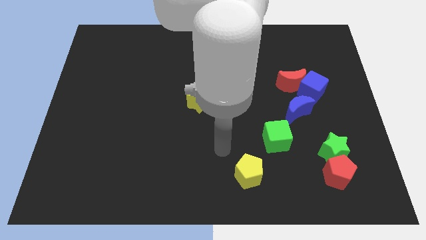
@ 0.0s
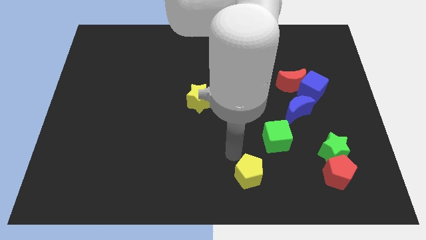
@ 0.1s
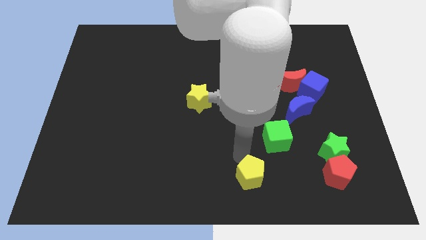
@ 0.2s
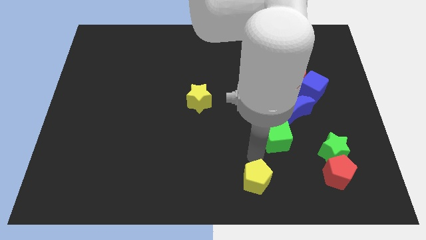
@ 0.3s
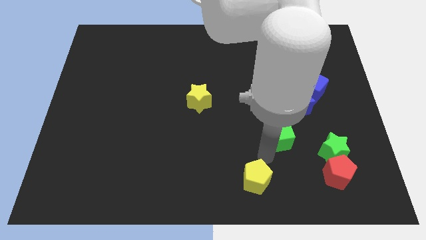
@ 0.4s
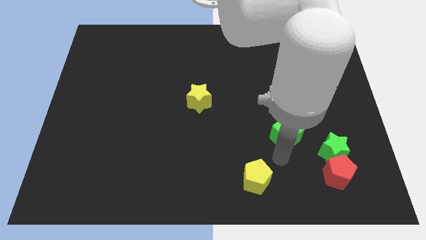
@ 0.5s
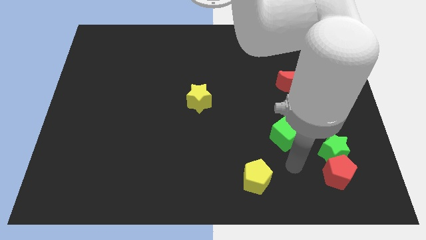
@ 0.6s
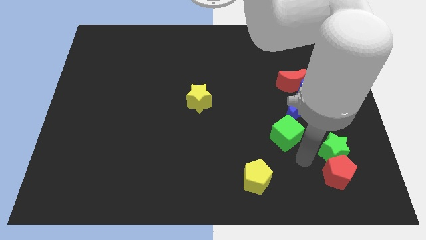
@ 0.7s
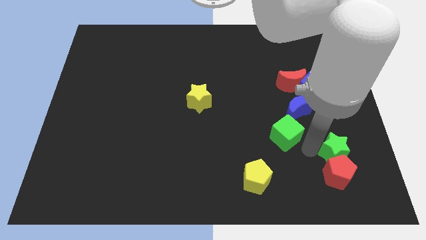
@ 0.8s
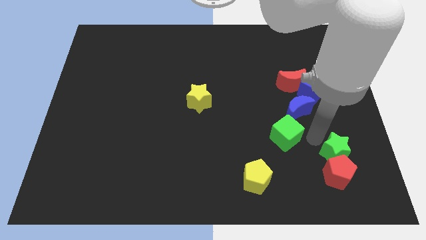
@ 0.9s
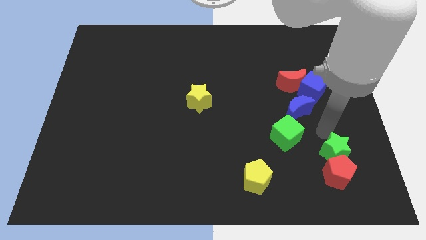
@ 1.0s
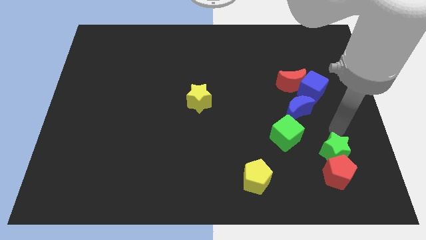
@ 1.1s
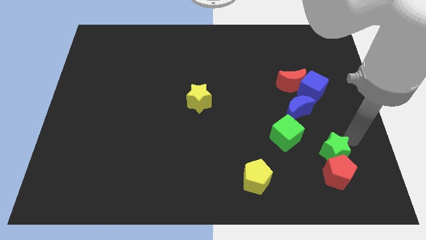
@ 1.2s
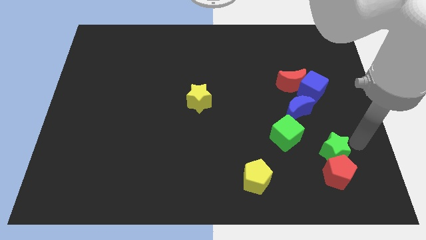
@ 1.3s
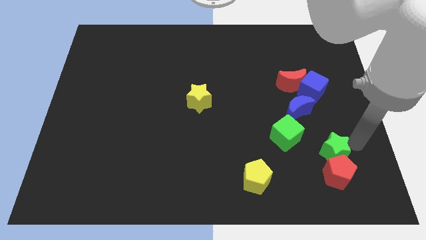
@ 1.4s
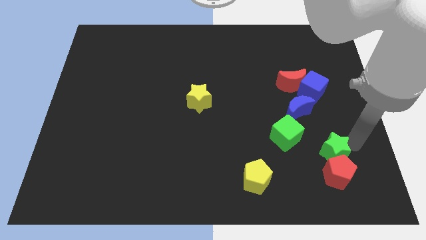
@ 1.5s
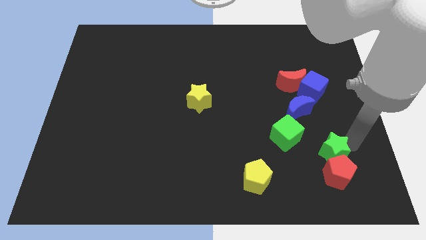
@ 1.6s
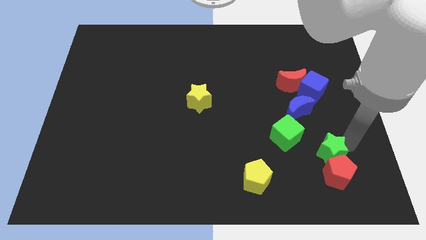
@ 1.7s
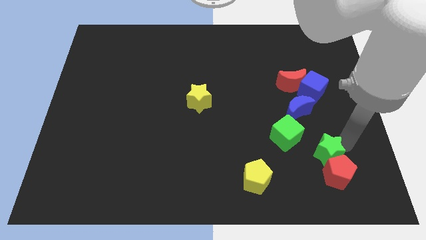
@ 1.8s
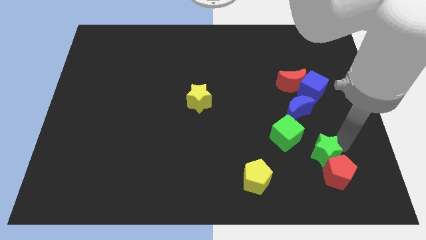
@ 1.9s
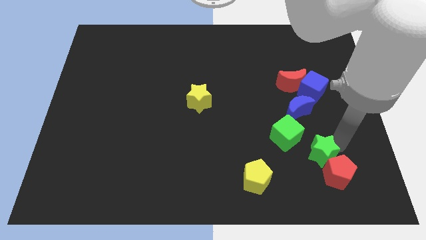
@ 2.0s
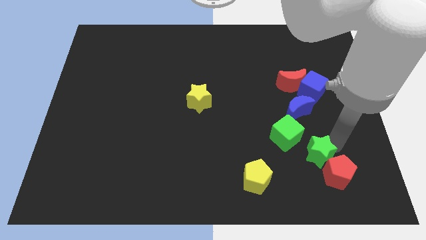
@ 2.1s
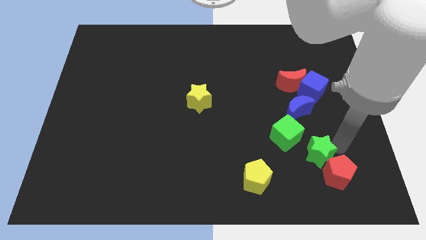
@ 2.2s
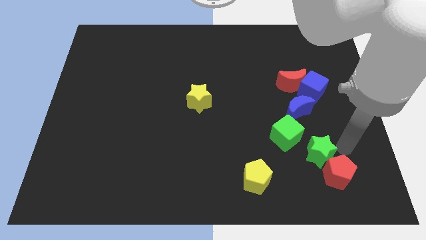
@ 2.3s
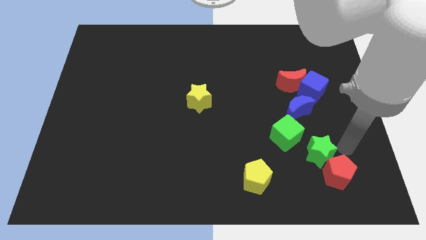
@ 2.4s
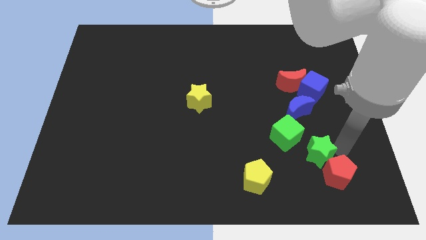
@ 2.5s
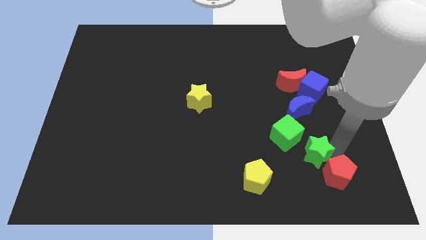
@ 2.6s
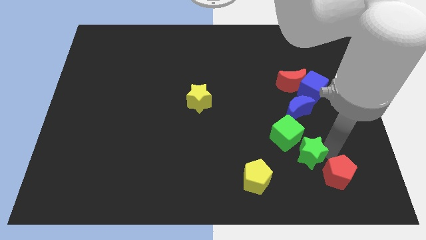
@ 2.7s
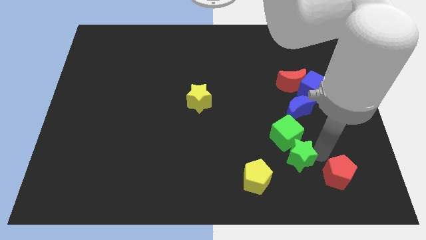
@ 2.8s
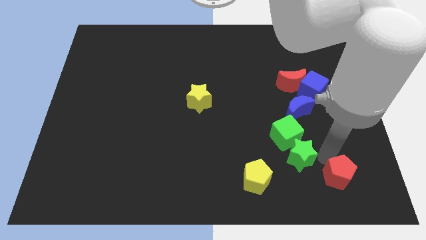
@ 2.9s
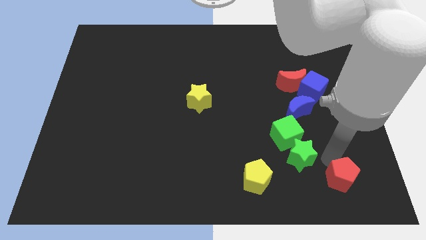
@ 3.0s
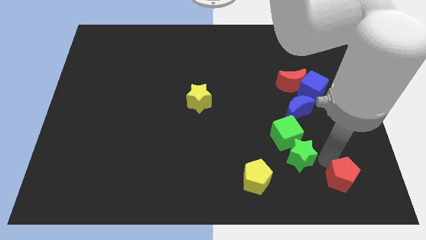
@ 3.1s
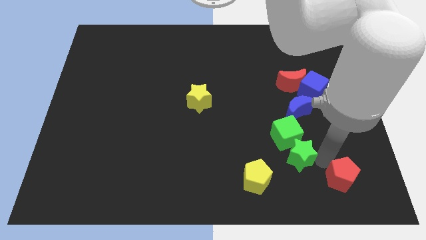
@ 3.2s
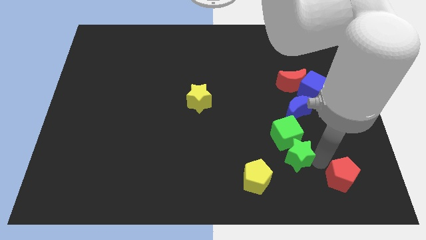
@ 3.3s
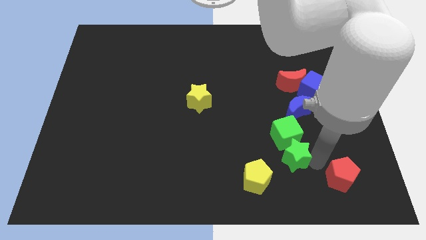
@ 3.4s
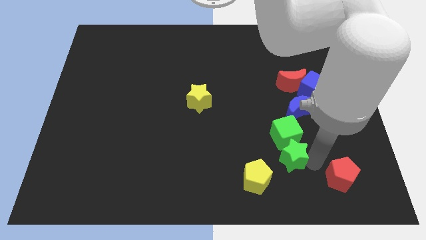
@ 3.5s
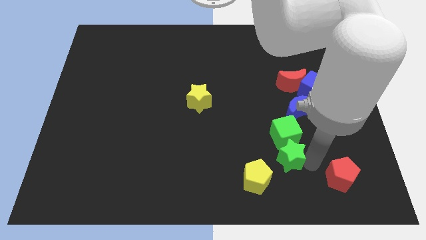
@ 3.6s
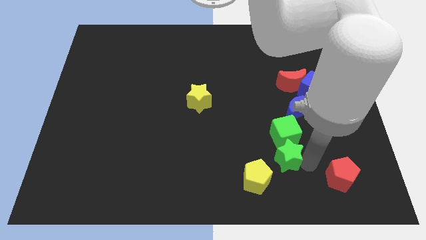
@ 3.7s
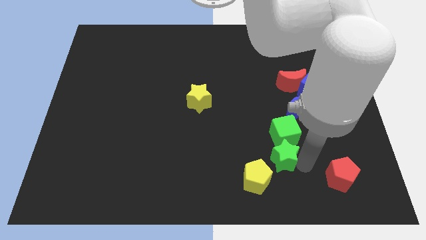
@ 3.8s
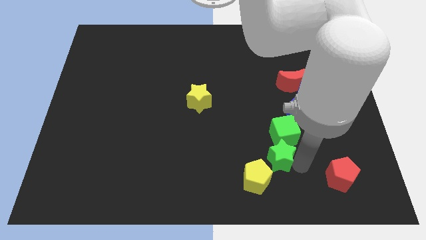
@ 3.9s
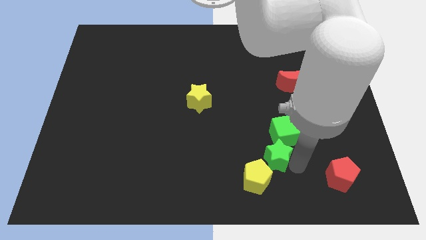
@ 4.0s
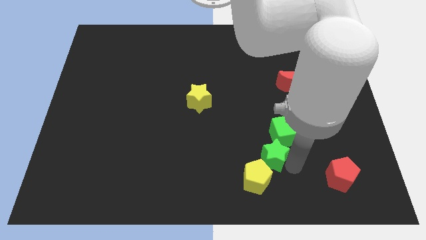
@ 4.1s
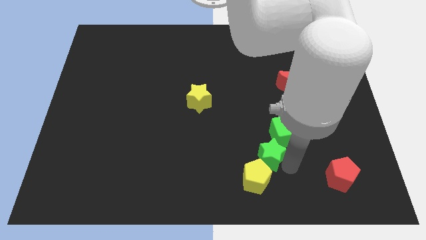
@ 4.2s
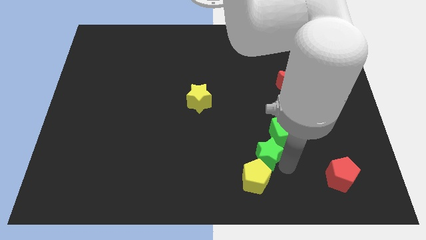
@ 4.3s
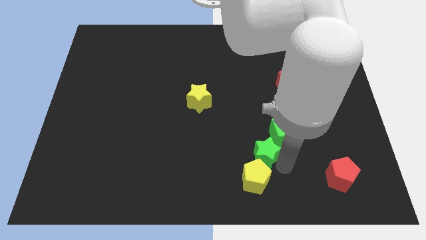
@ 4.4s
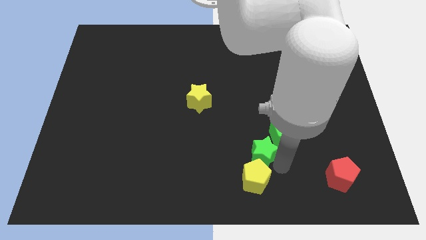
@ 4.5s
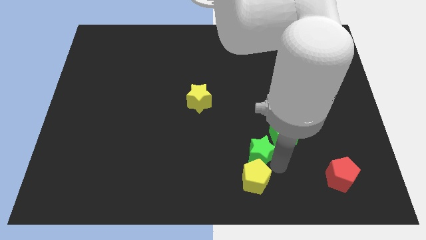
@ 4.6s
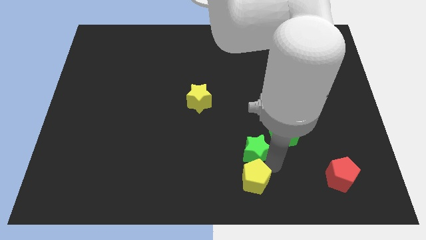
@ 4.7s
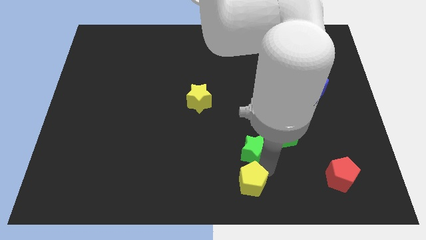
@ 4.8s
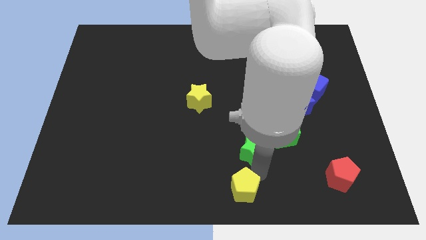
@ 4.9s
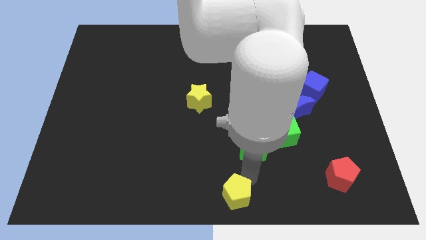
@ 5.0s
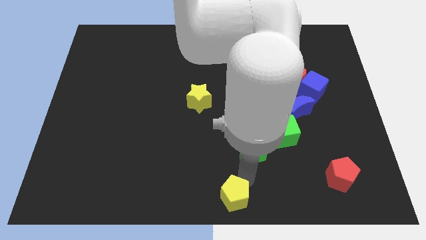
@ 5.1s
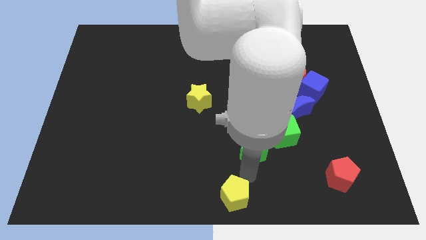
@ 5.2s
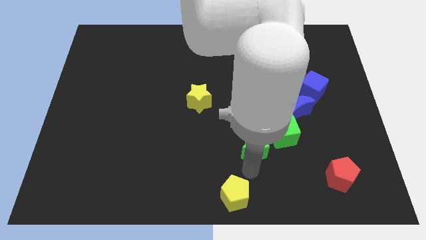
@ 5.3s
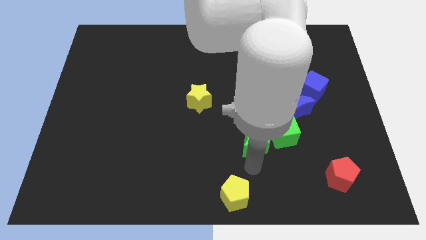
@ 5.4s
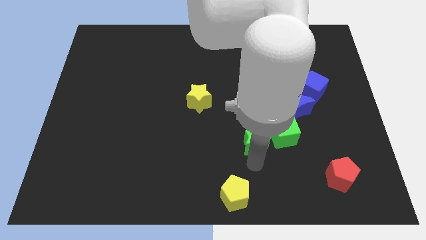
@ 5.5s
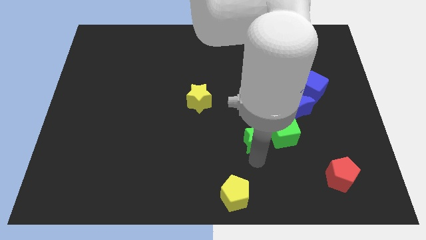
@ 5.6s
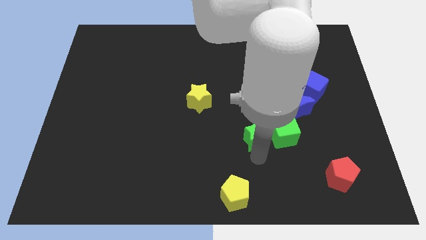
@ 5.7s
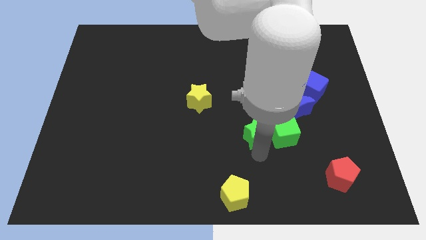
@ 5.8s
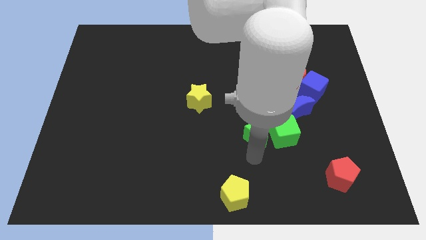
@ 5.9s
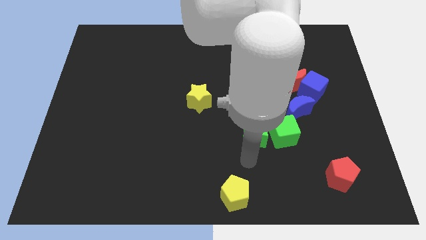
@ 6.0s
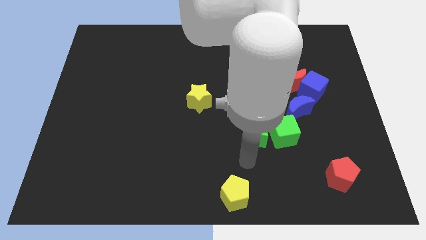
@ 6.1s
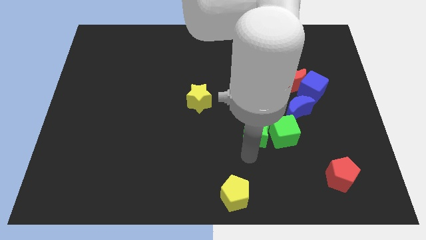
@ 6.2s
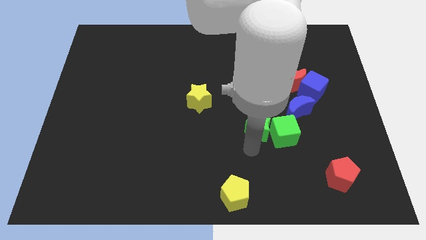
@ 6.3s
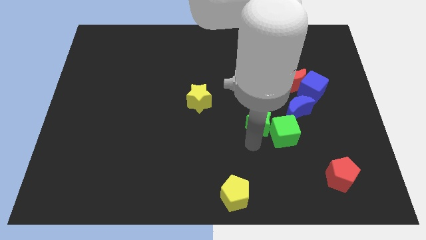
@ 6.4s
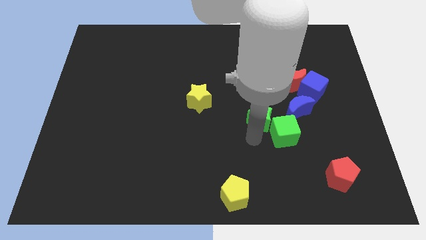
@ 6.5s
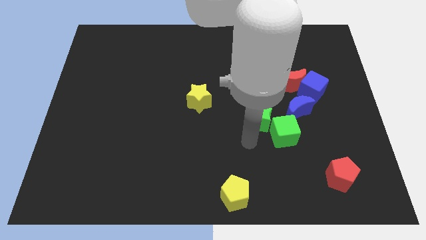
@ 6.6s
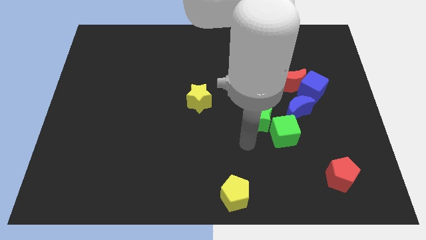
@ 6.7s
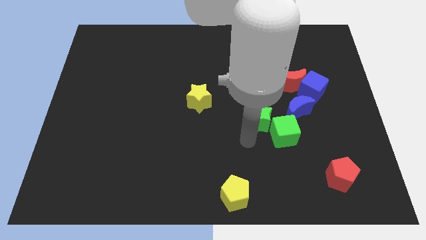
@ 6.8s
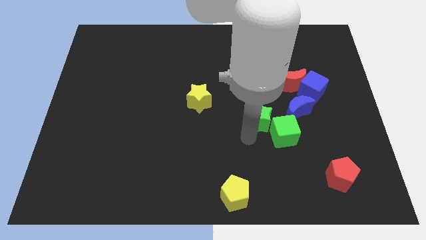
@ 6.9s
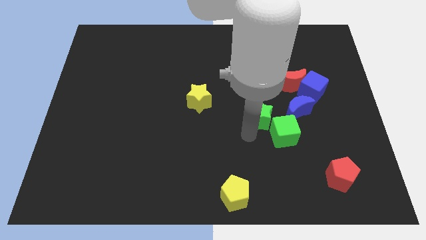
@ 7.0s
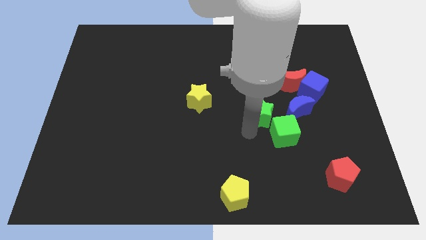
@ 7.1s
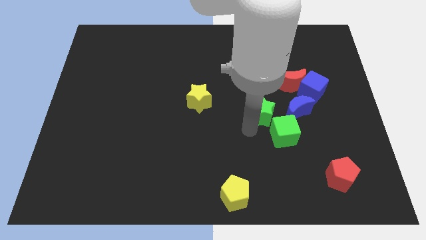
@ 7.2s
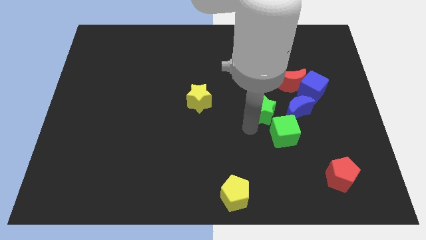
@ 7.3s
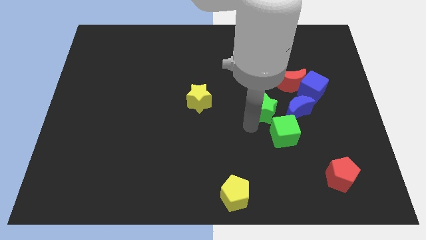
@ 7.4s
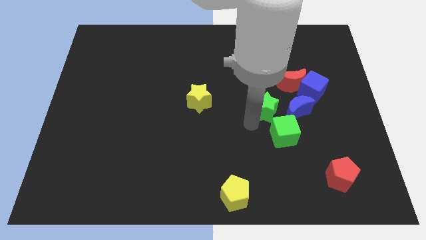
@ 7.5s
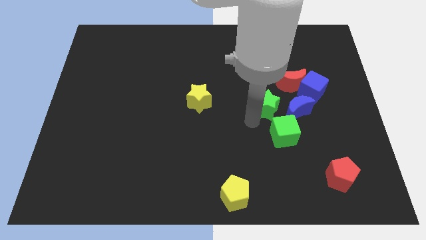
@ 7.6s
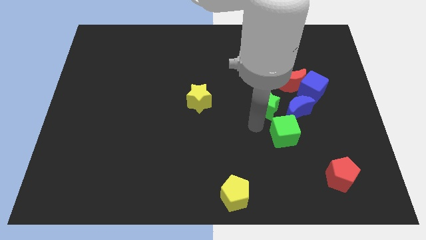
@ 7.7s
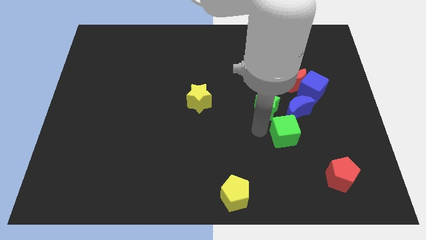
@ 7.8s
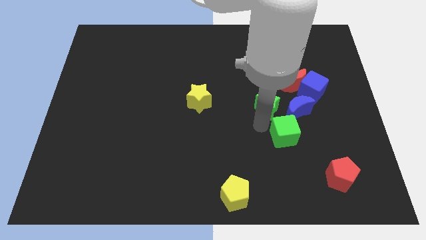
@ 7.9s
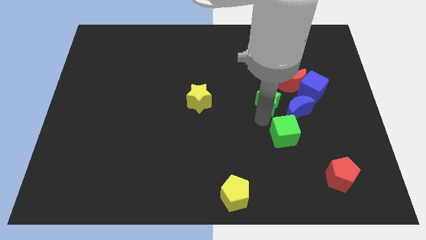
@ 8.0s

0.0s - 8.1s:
move the green star to the left side of the blue cube
